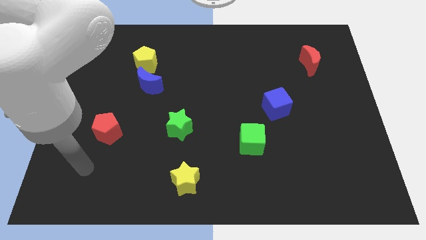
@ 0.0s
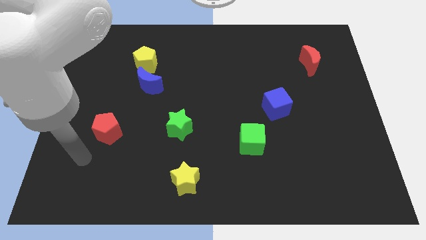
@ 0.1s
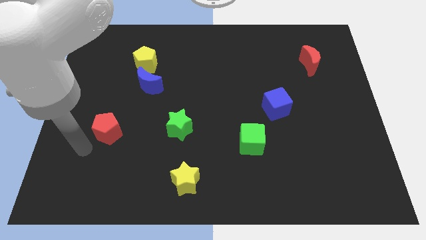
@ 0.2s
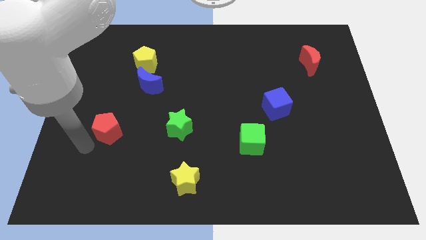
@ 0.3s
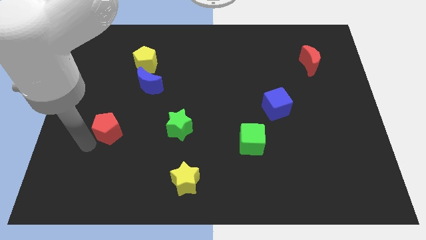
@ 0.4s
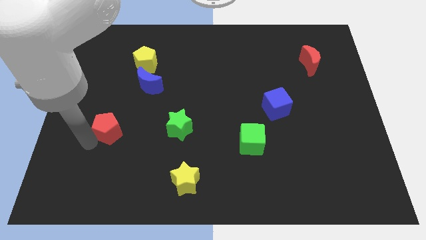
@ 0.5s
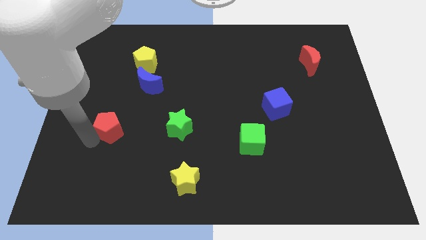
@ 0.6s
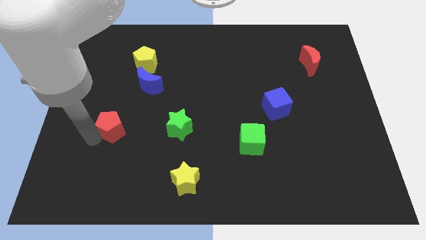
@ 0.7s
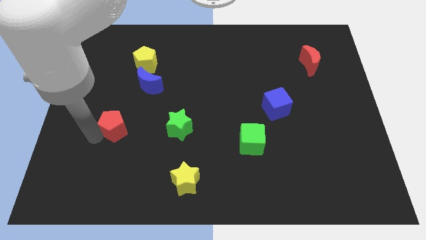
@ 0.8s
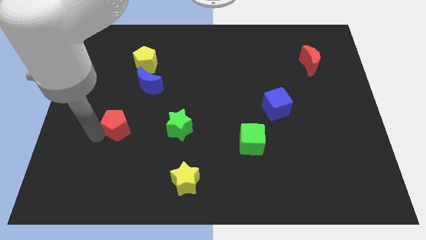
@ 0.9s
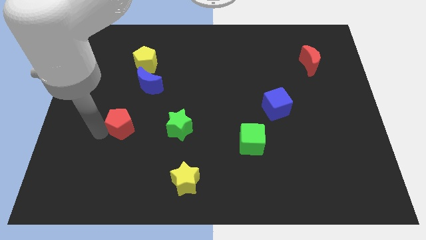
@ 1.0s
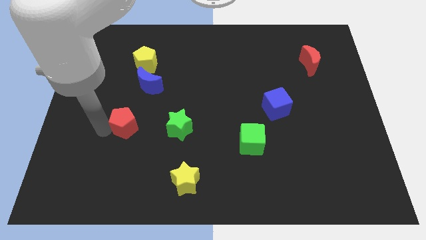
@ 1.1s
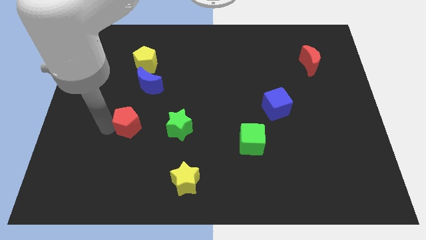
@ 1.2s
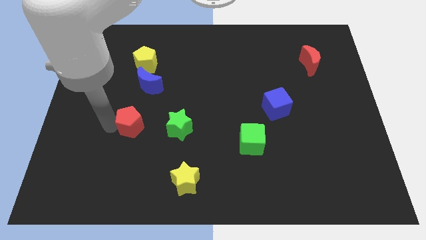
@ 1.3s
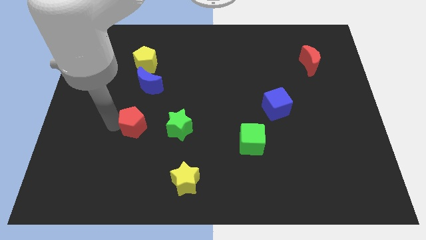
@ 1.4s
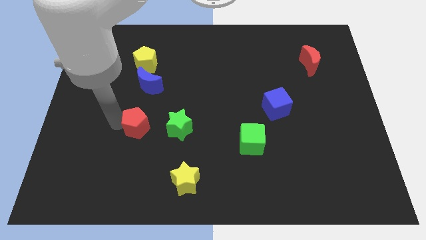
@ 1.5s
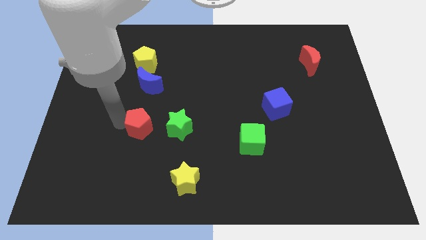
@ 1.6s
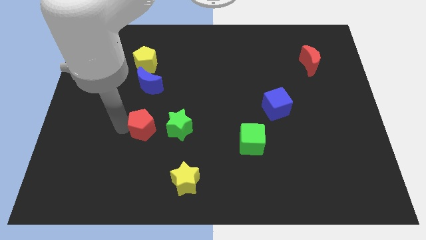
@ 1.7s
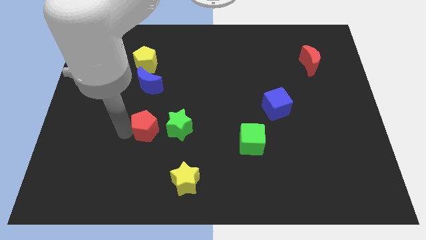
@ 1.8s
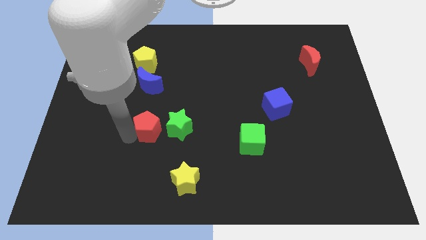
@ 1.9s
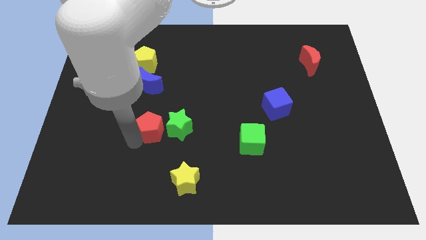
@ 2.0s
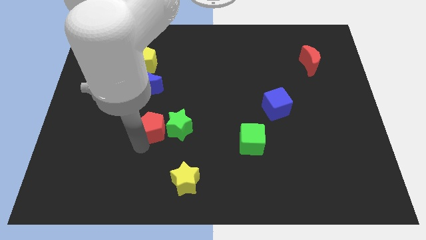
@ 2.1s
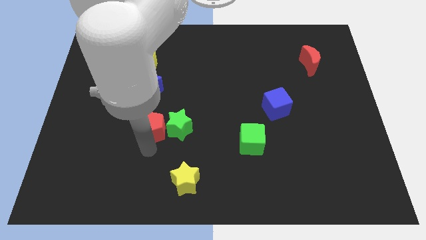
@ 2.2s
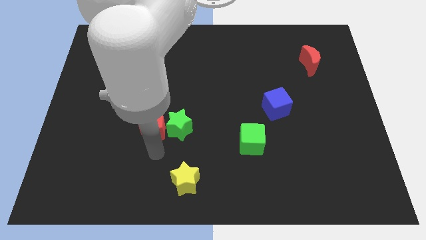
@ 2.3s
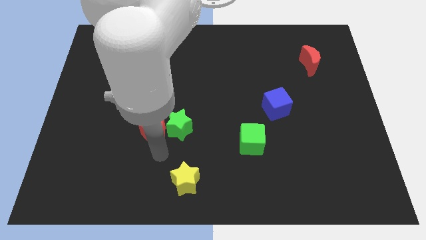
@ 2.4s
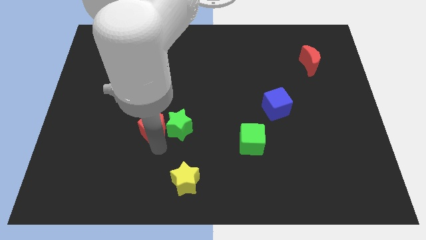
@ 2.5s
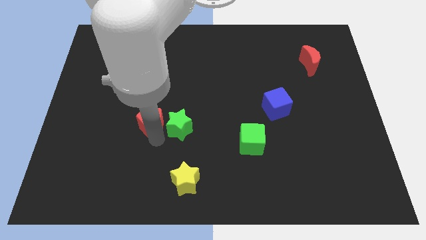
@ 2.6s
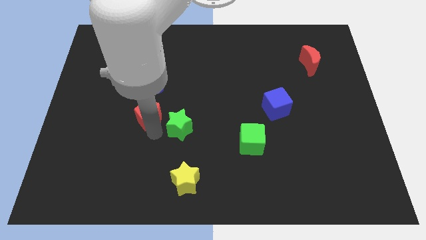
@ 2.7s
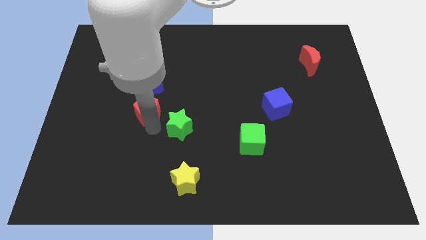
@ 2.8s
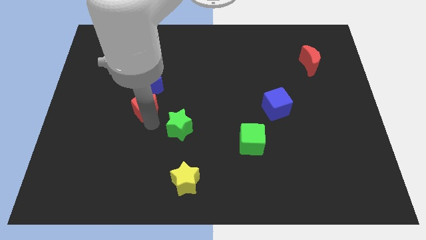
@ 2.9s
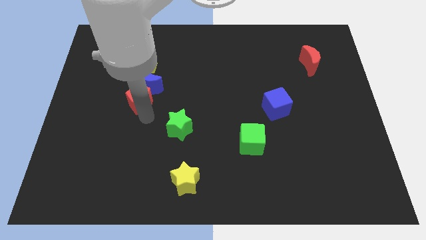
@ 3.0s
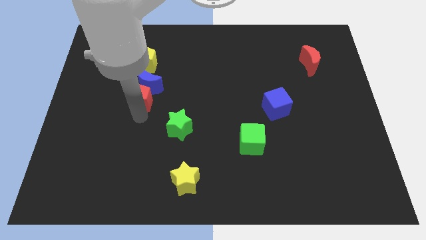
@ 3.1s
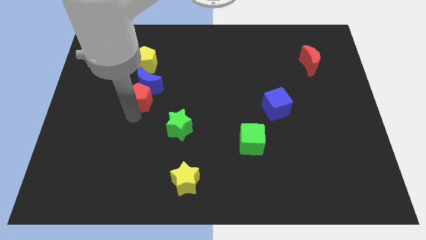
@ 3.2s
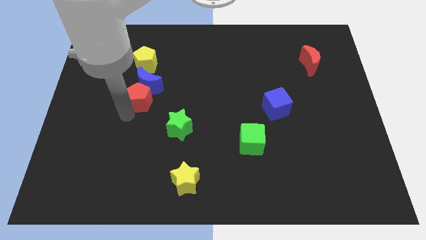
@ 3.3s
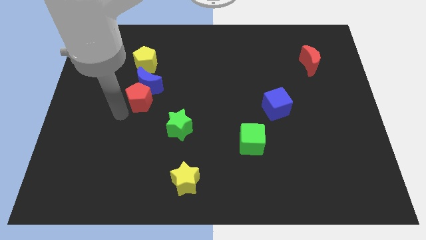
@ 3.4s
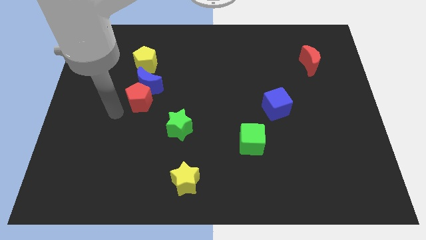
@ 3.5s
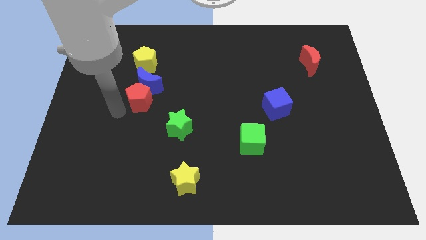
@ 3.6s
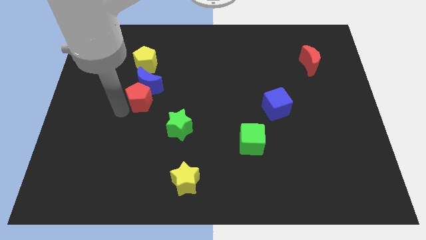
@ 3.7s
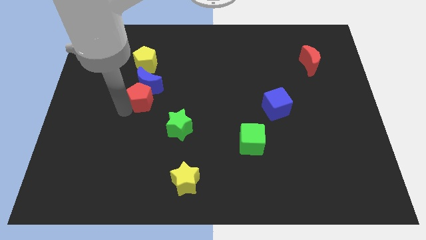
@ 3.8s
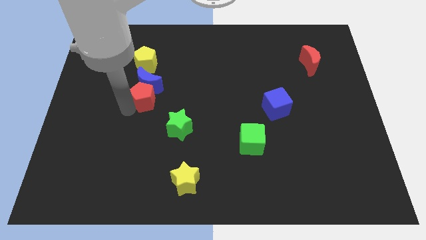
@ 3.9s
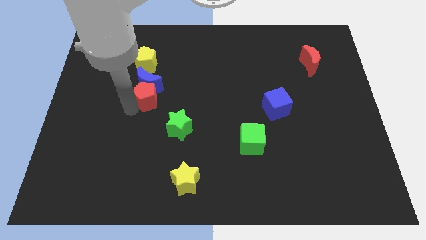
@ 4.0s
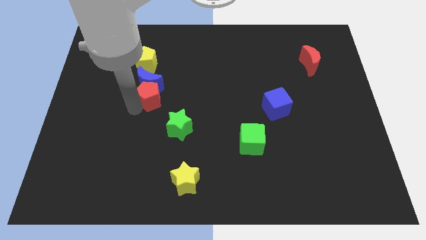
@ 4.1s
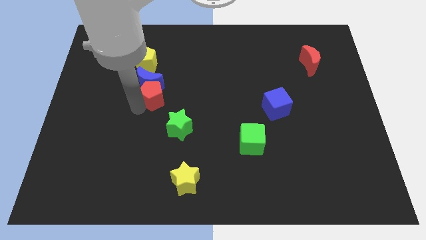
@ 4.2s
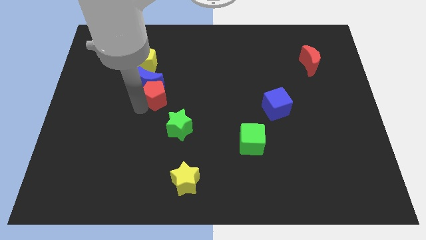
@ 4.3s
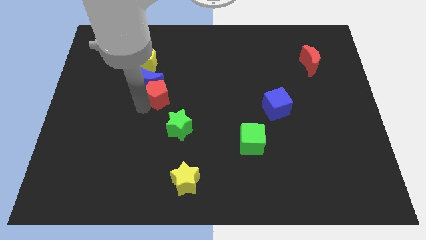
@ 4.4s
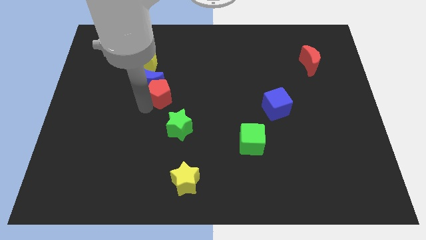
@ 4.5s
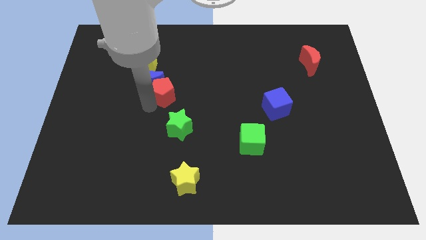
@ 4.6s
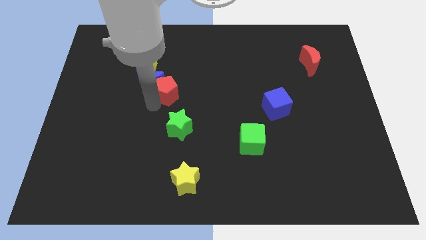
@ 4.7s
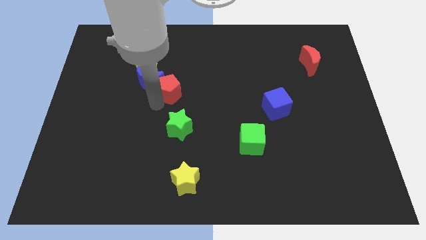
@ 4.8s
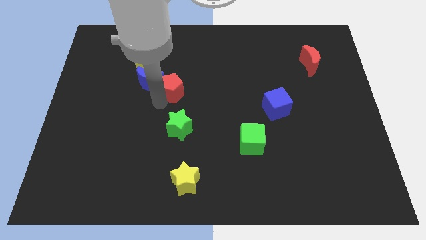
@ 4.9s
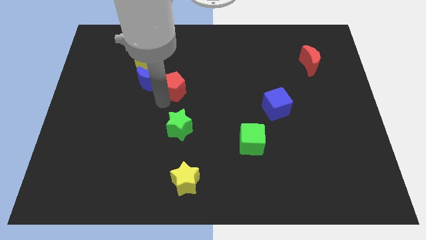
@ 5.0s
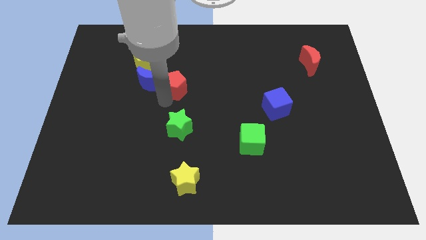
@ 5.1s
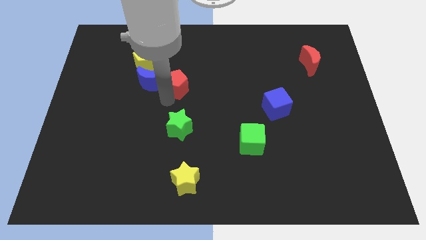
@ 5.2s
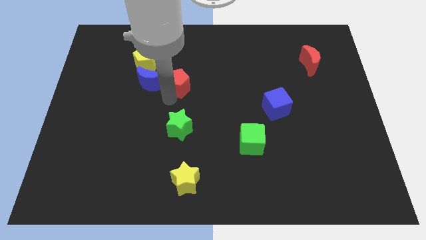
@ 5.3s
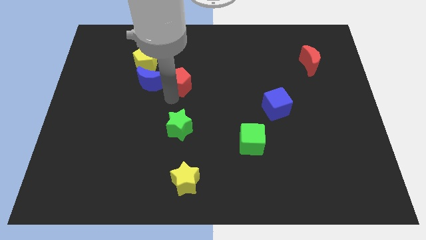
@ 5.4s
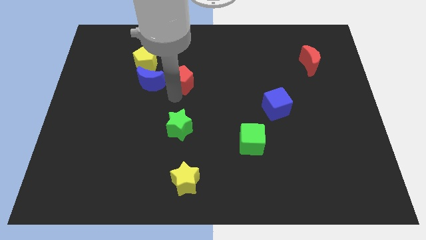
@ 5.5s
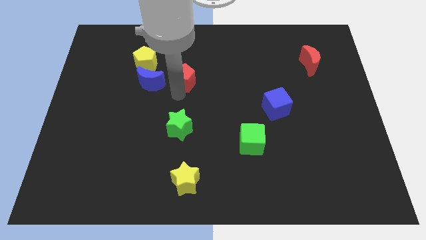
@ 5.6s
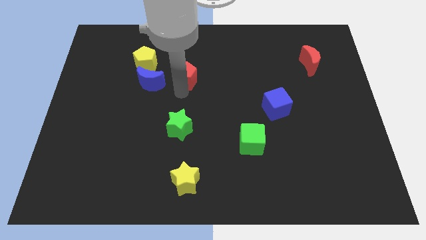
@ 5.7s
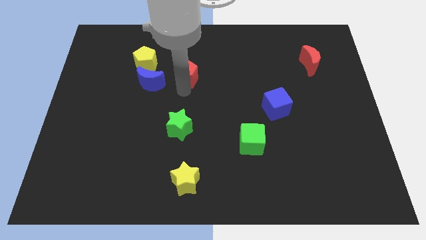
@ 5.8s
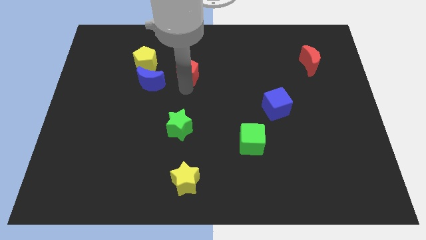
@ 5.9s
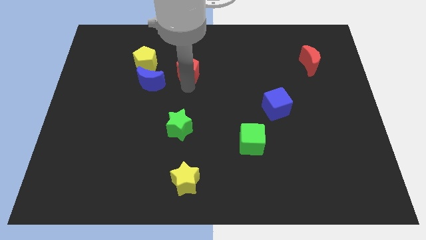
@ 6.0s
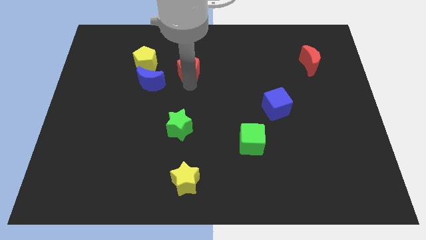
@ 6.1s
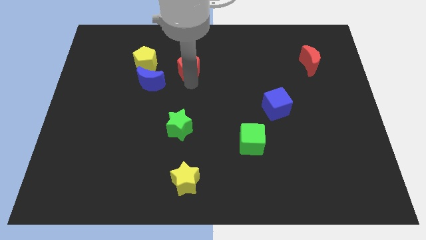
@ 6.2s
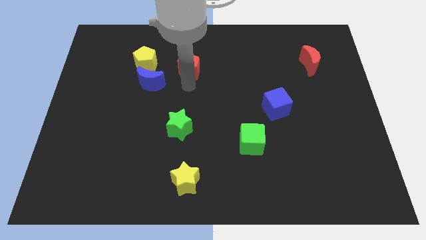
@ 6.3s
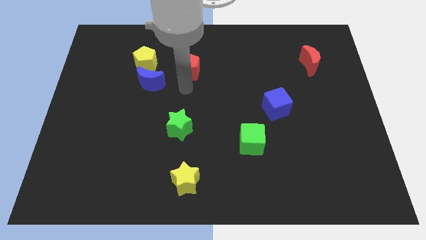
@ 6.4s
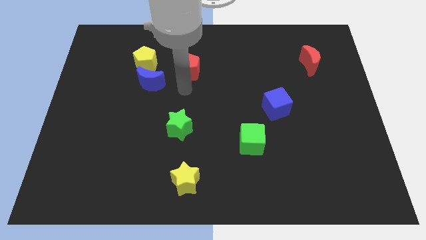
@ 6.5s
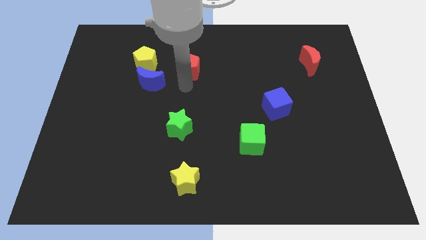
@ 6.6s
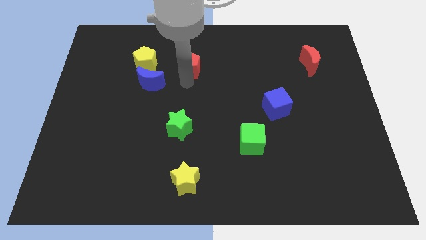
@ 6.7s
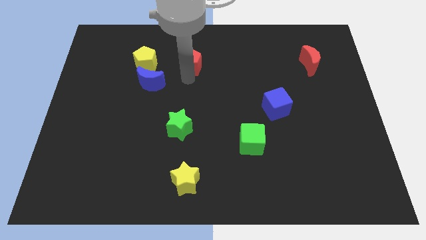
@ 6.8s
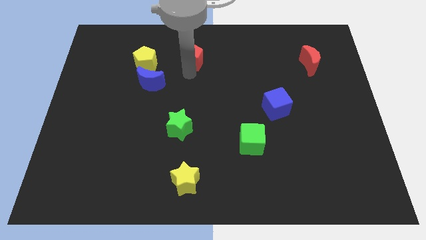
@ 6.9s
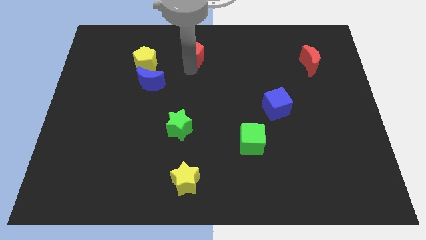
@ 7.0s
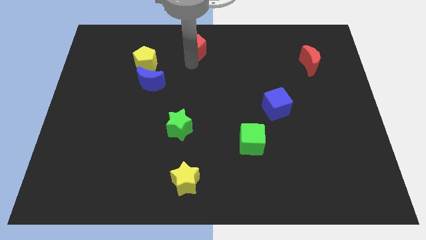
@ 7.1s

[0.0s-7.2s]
push the red pentagon to the top side
